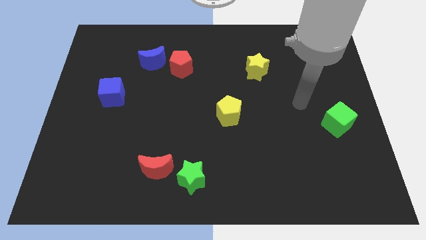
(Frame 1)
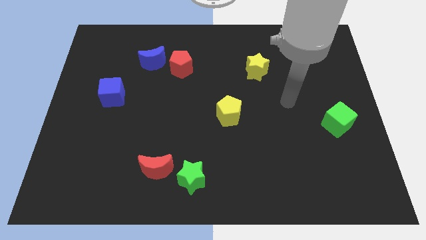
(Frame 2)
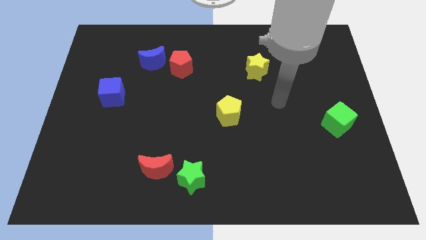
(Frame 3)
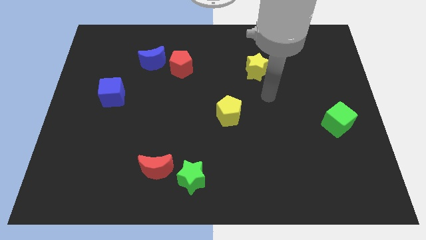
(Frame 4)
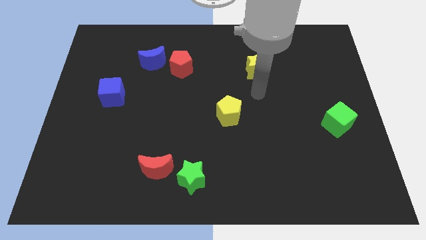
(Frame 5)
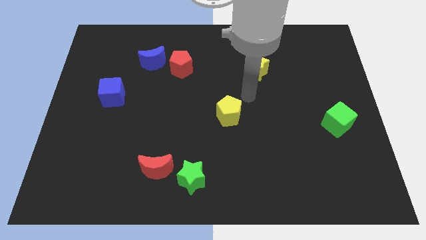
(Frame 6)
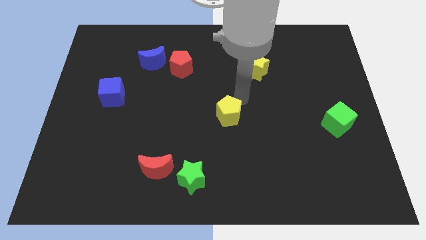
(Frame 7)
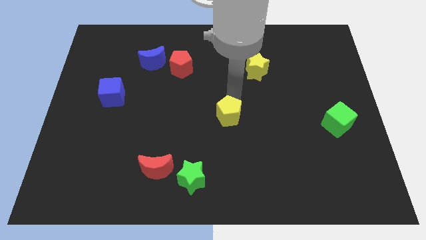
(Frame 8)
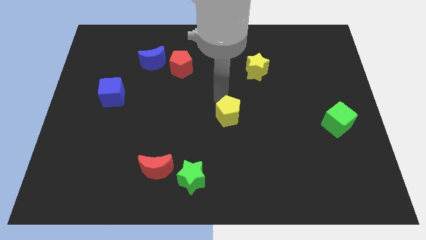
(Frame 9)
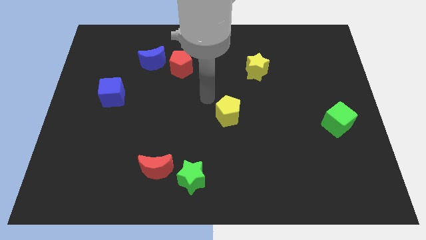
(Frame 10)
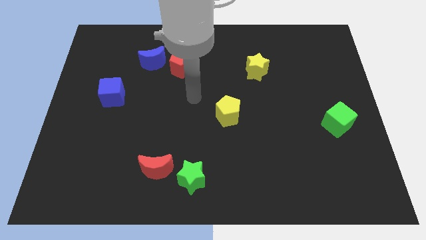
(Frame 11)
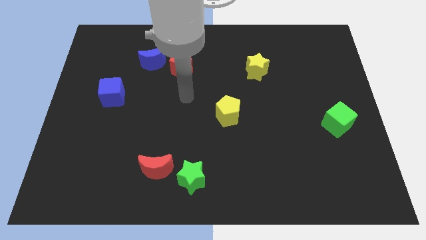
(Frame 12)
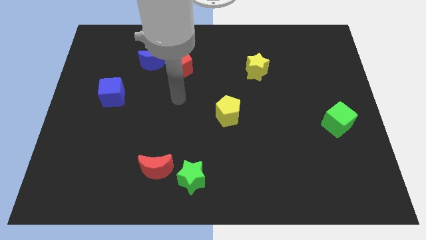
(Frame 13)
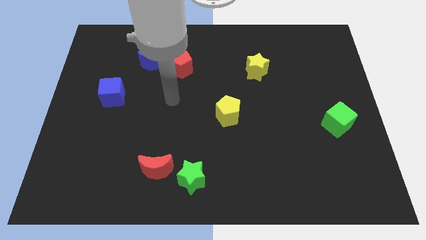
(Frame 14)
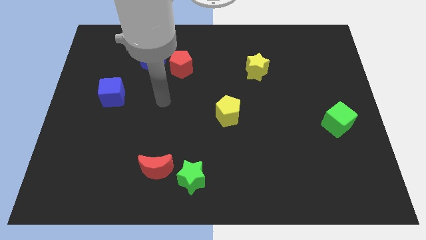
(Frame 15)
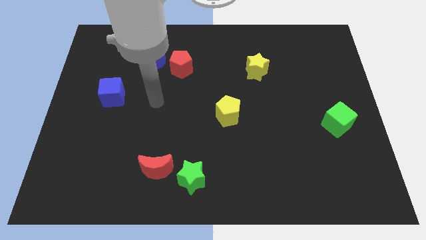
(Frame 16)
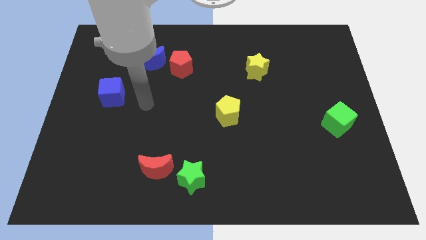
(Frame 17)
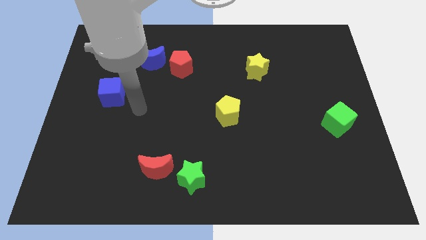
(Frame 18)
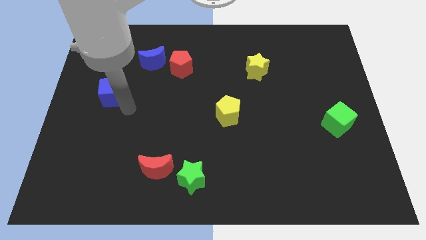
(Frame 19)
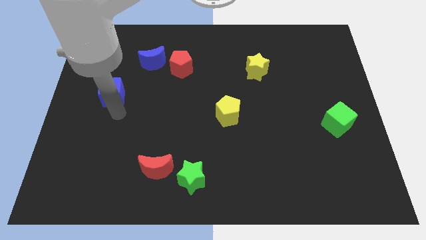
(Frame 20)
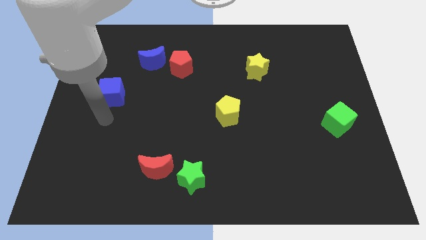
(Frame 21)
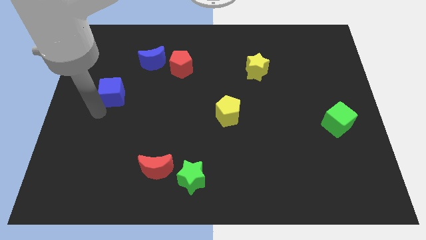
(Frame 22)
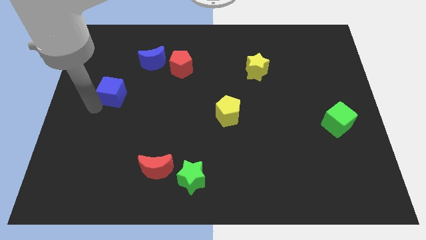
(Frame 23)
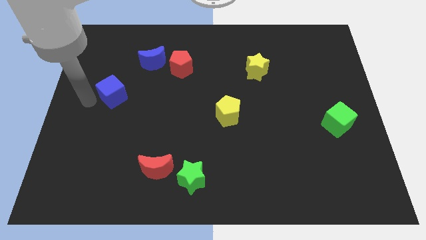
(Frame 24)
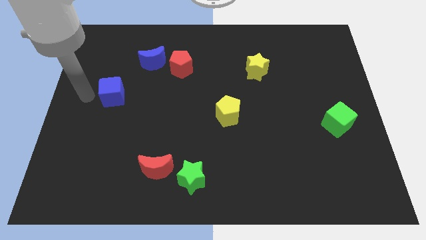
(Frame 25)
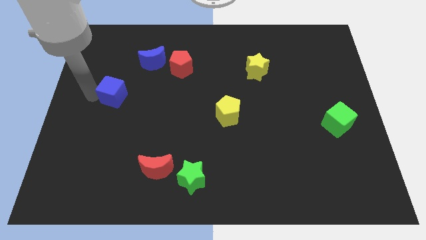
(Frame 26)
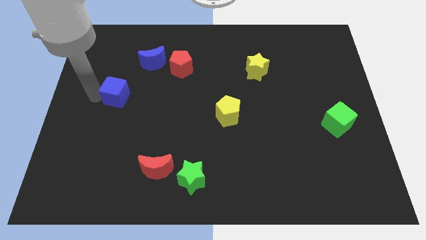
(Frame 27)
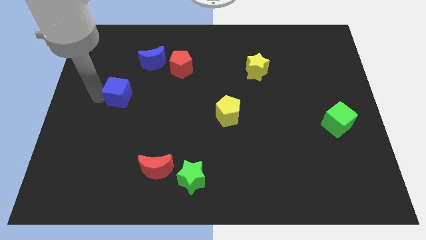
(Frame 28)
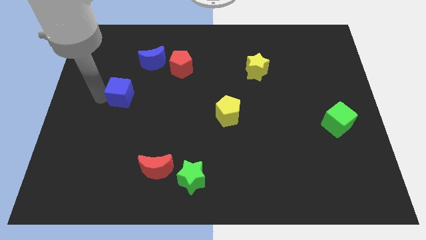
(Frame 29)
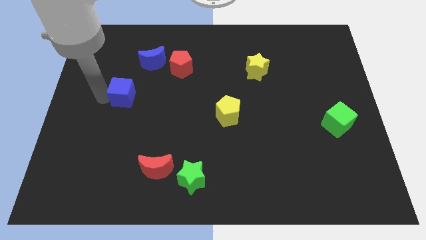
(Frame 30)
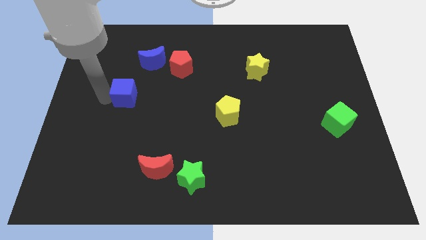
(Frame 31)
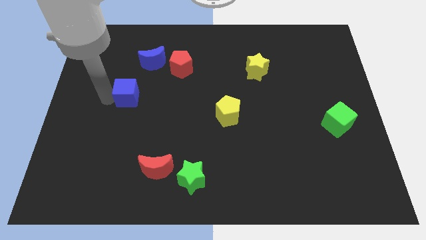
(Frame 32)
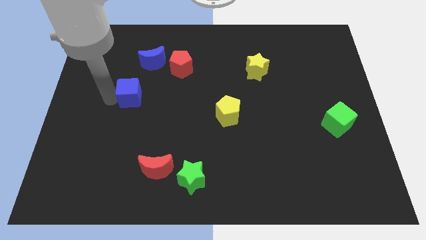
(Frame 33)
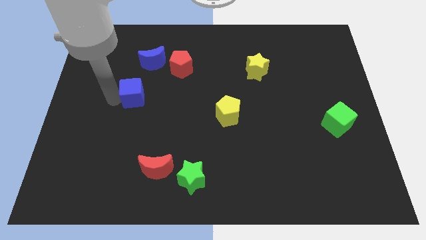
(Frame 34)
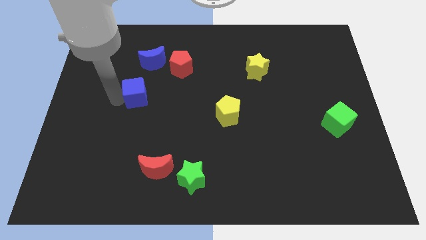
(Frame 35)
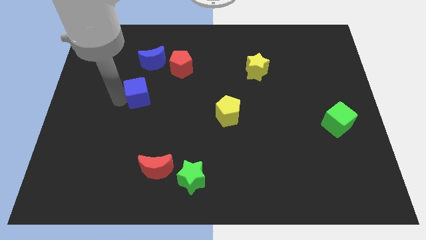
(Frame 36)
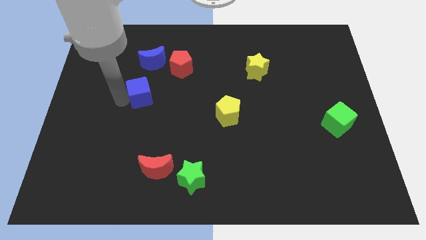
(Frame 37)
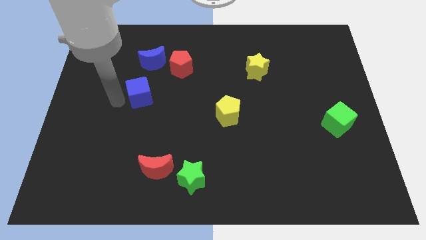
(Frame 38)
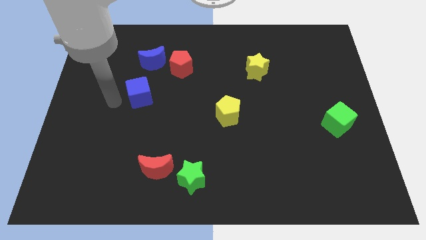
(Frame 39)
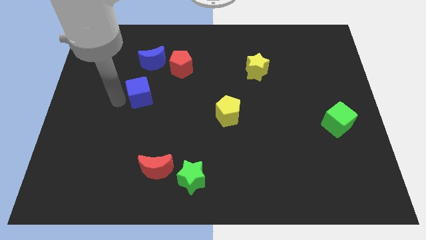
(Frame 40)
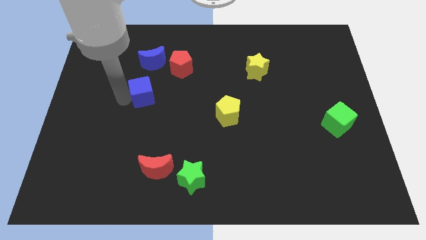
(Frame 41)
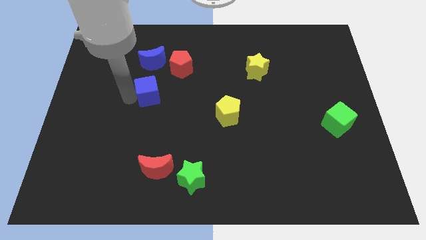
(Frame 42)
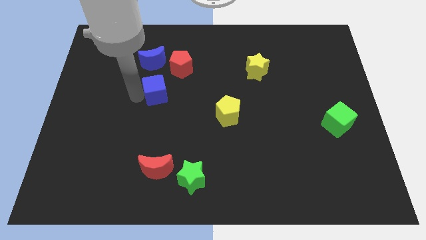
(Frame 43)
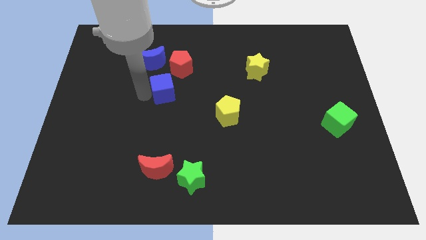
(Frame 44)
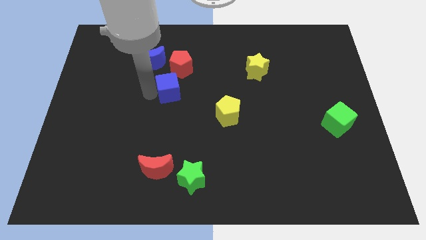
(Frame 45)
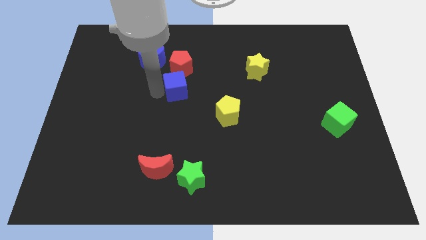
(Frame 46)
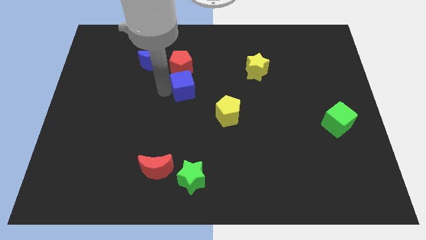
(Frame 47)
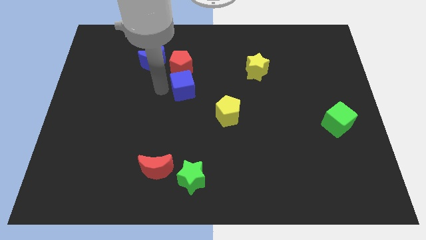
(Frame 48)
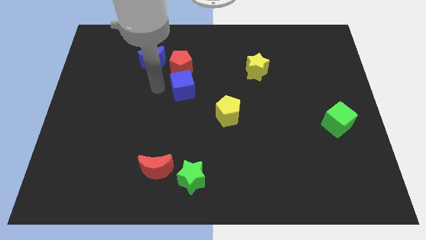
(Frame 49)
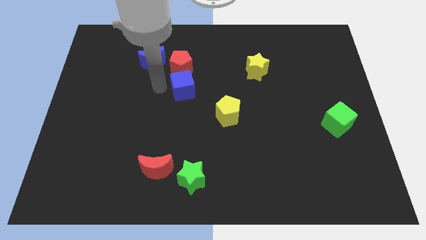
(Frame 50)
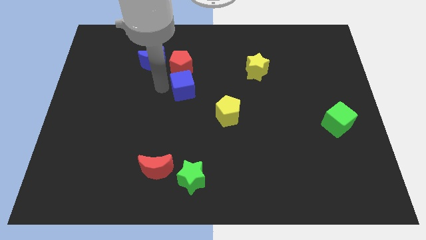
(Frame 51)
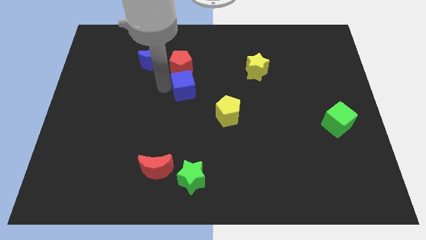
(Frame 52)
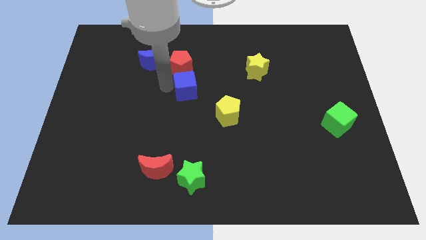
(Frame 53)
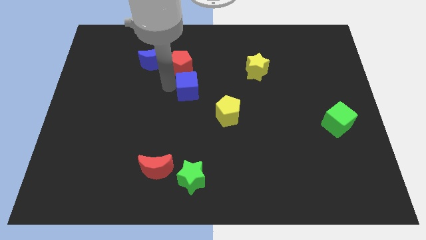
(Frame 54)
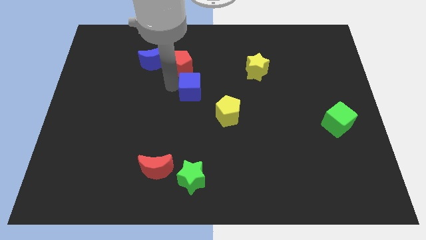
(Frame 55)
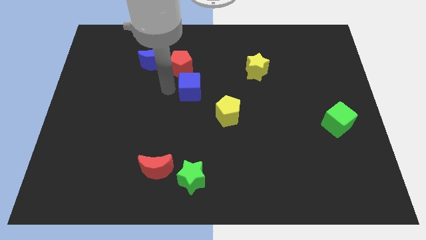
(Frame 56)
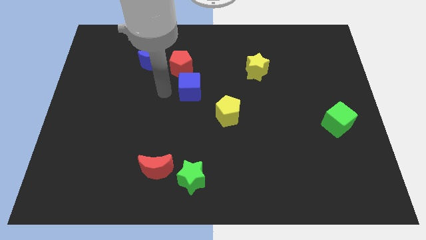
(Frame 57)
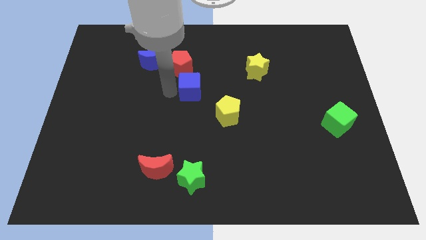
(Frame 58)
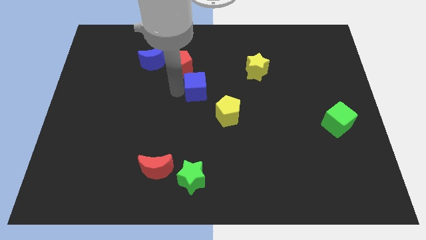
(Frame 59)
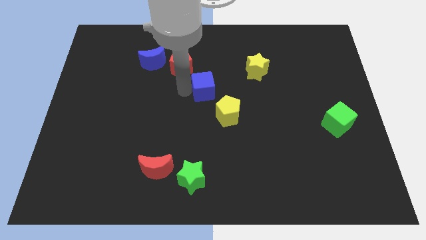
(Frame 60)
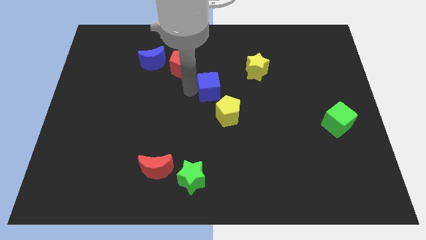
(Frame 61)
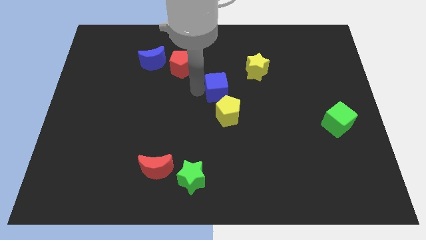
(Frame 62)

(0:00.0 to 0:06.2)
move the blue cube diagonally down and to the left of the yellow star
